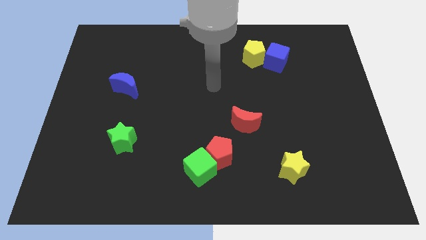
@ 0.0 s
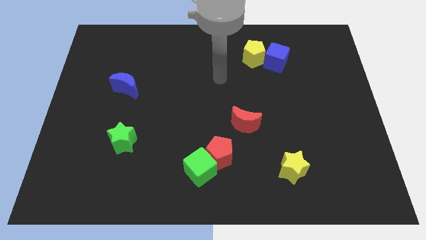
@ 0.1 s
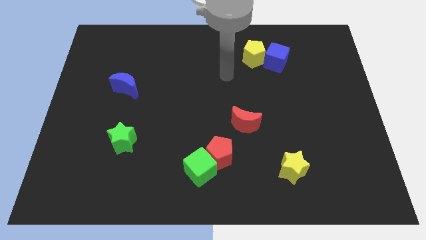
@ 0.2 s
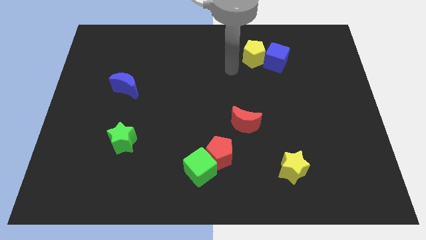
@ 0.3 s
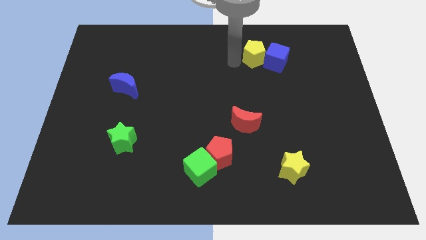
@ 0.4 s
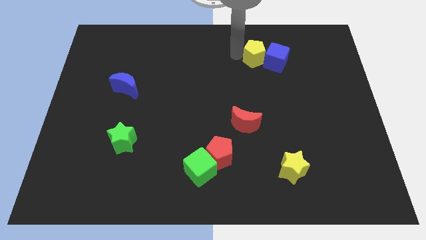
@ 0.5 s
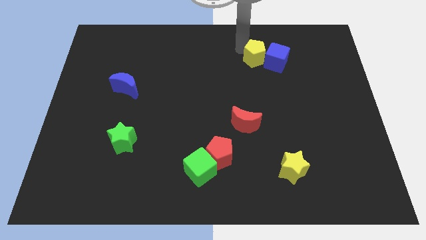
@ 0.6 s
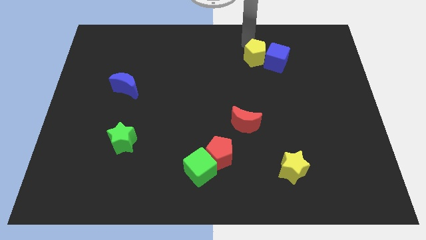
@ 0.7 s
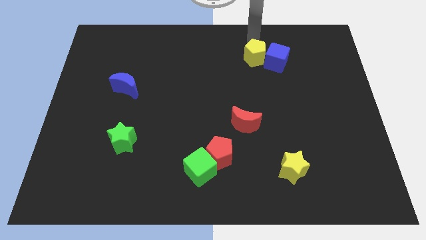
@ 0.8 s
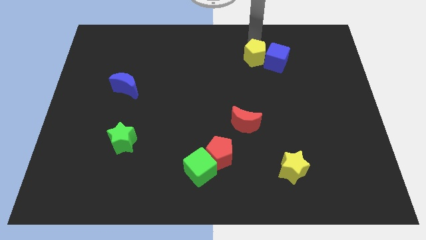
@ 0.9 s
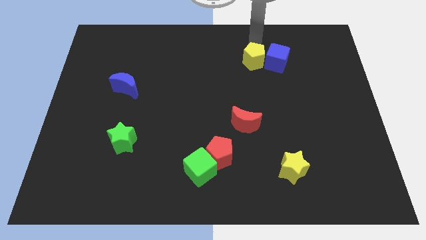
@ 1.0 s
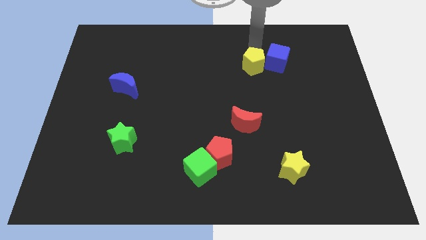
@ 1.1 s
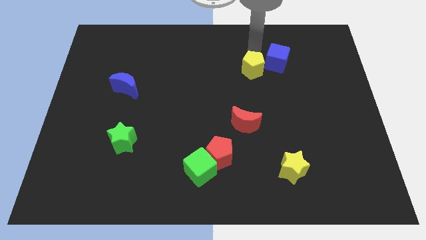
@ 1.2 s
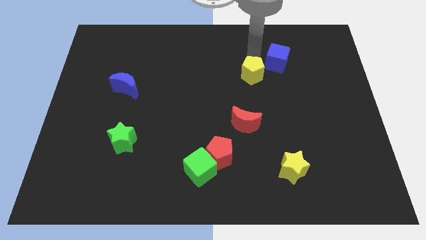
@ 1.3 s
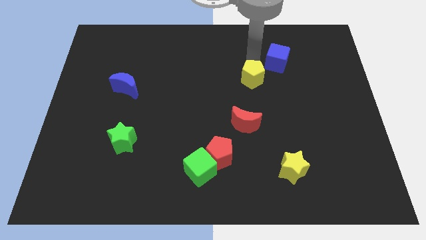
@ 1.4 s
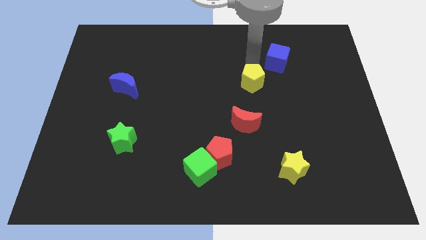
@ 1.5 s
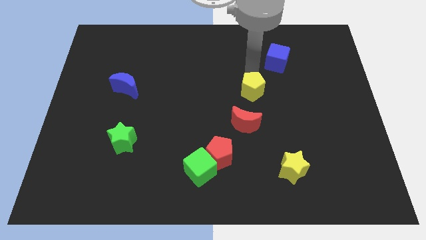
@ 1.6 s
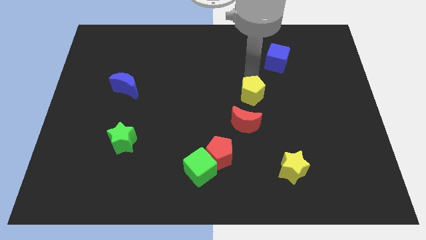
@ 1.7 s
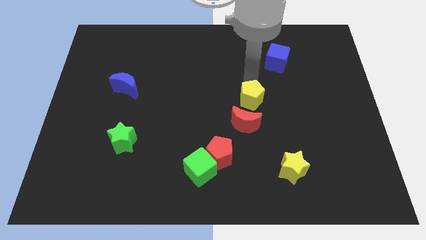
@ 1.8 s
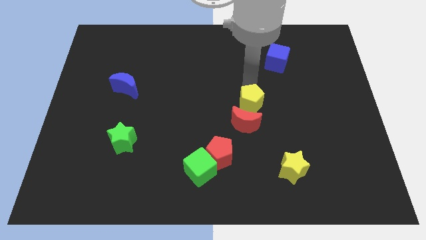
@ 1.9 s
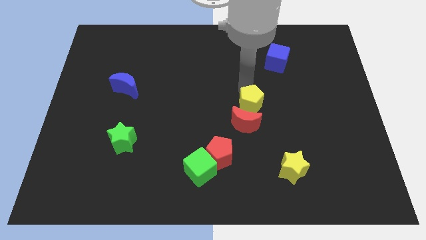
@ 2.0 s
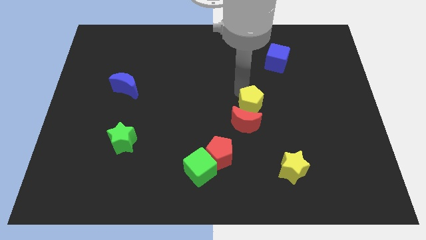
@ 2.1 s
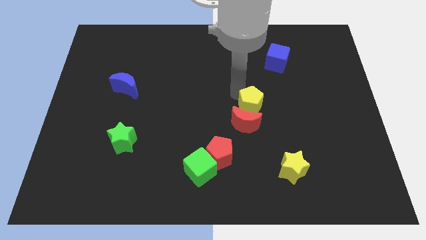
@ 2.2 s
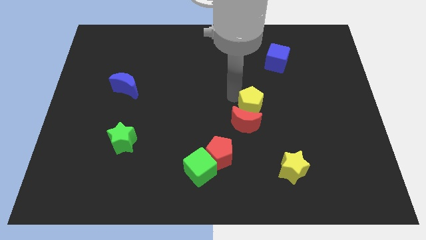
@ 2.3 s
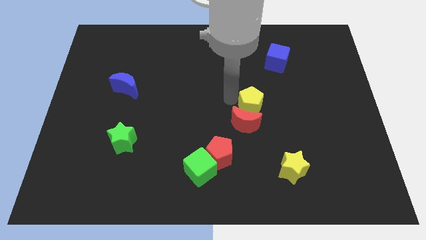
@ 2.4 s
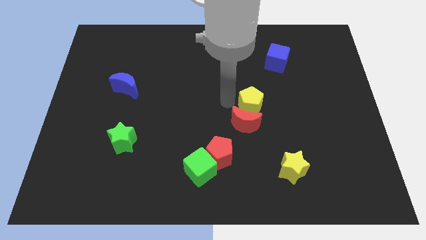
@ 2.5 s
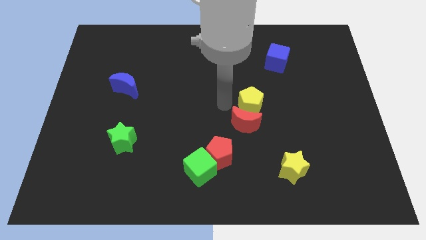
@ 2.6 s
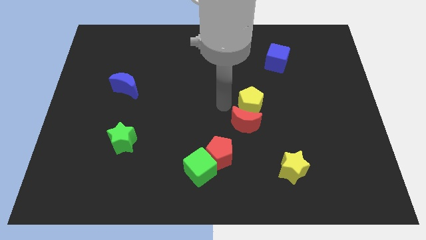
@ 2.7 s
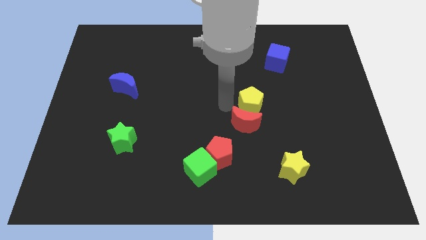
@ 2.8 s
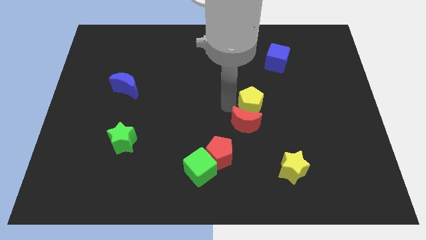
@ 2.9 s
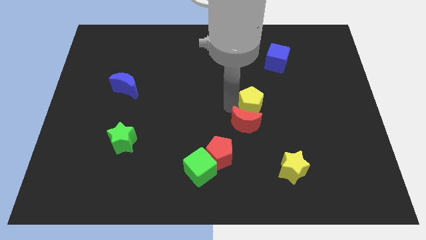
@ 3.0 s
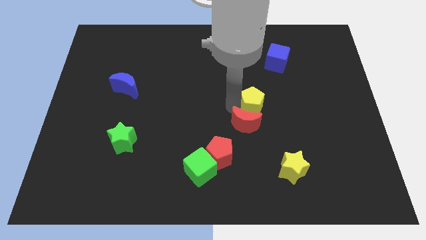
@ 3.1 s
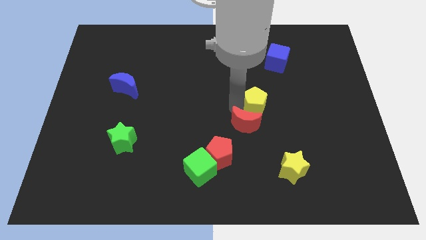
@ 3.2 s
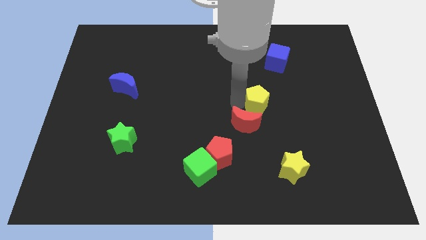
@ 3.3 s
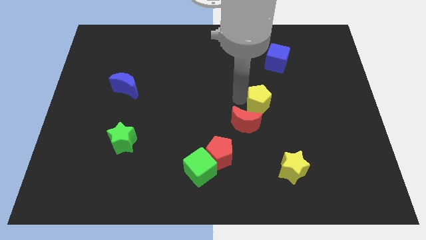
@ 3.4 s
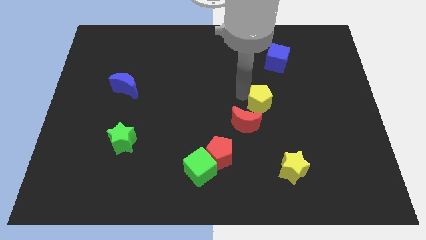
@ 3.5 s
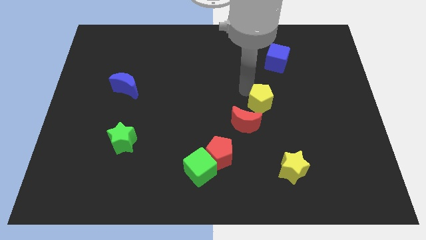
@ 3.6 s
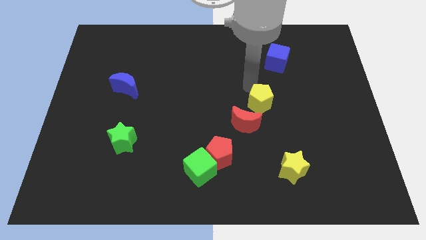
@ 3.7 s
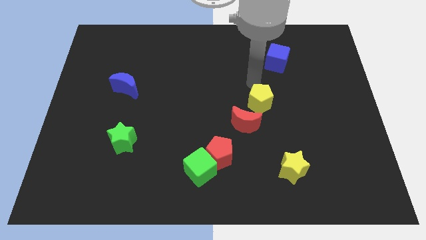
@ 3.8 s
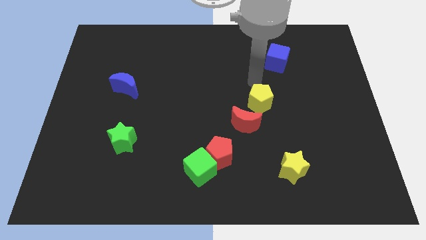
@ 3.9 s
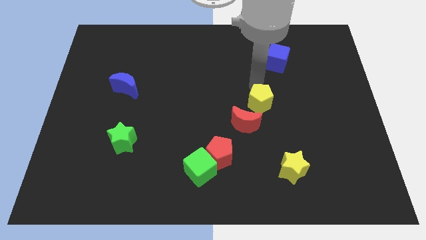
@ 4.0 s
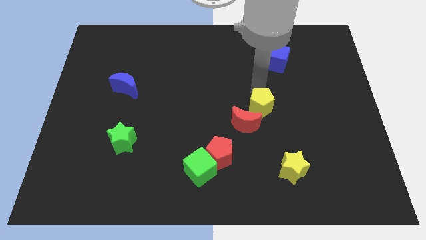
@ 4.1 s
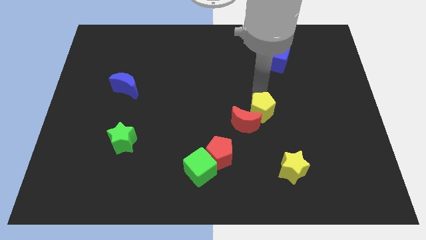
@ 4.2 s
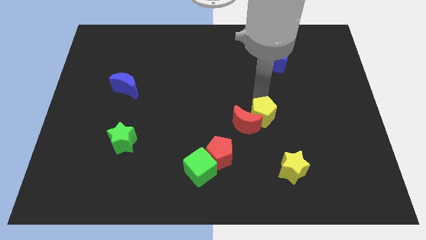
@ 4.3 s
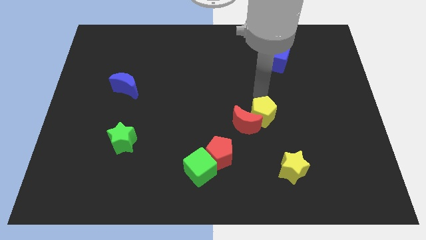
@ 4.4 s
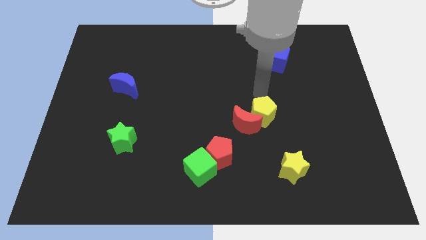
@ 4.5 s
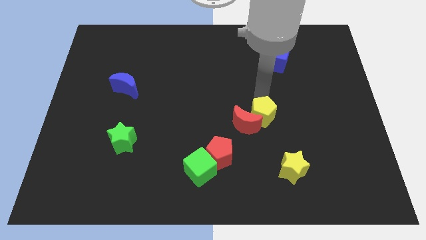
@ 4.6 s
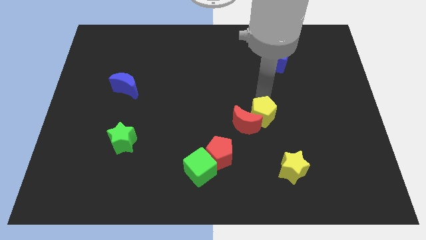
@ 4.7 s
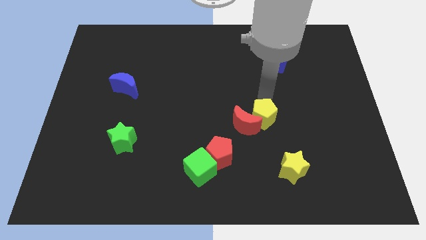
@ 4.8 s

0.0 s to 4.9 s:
push the yellow pentagon downwards

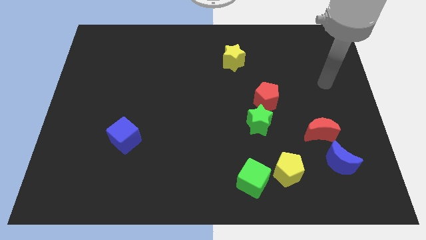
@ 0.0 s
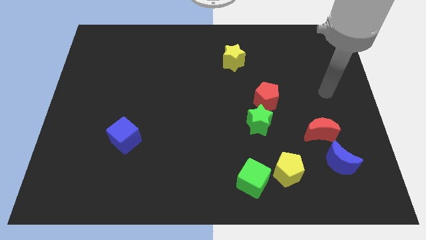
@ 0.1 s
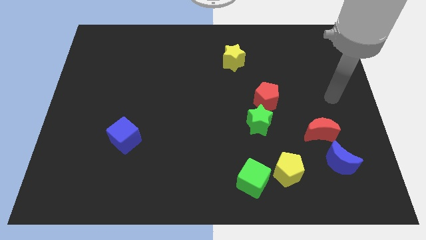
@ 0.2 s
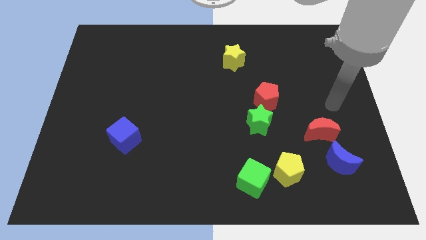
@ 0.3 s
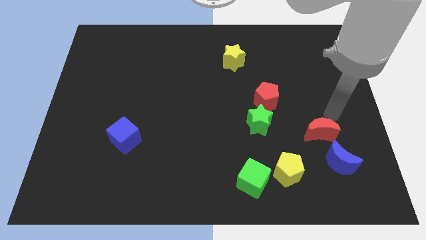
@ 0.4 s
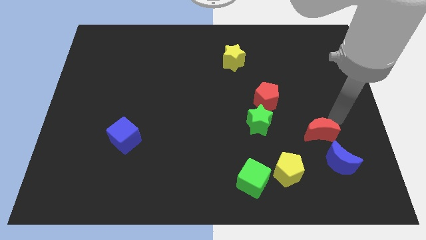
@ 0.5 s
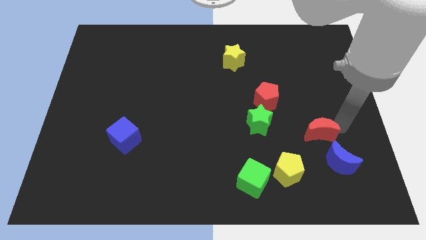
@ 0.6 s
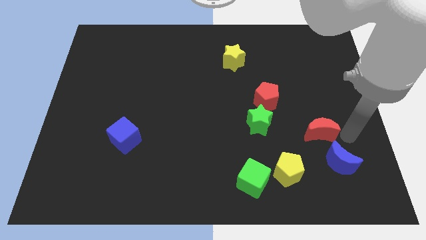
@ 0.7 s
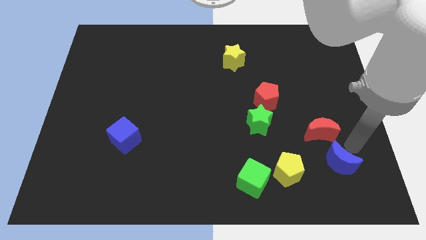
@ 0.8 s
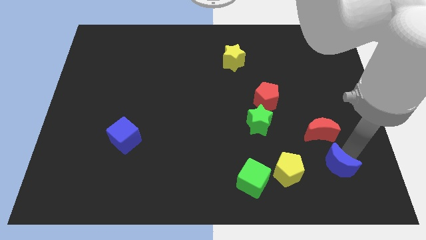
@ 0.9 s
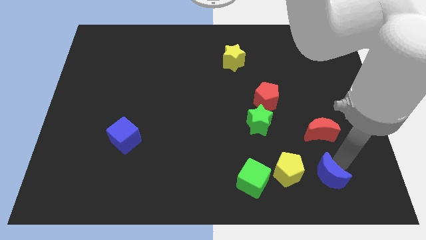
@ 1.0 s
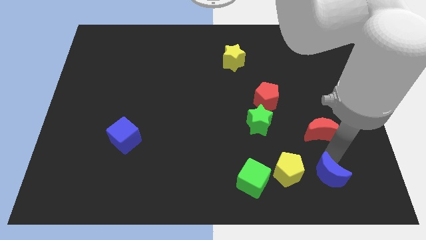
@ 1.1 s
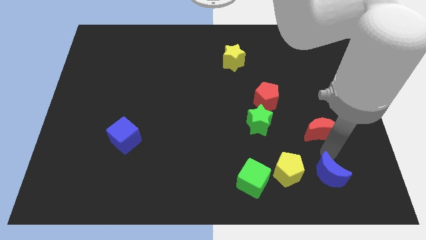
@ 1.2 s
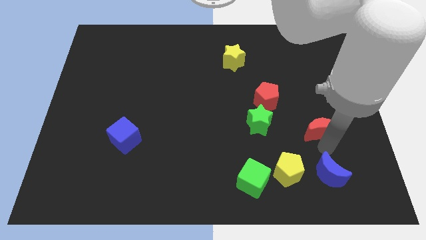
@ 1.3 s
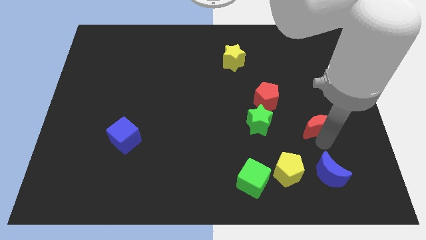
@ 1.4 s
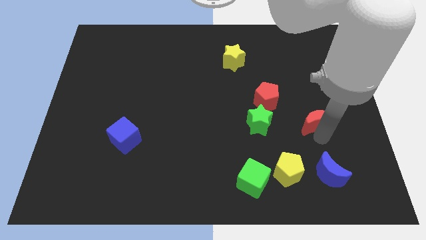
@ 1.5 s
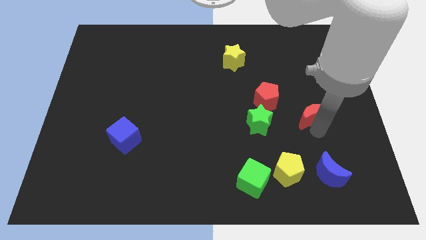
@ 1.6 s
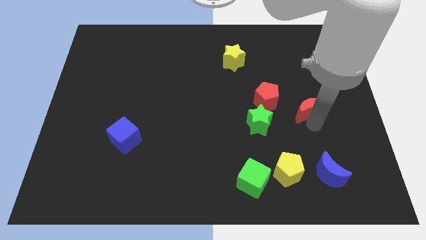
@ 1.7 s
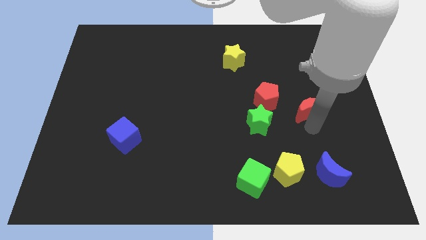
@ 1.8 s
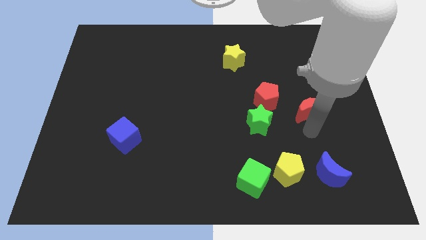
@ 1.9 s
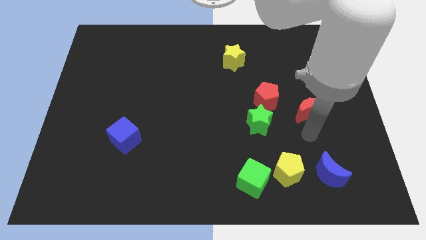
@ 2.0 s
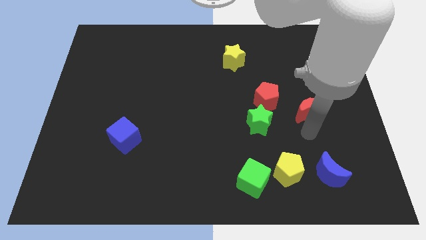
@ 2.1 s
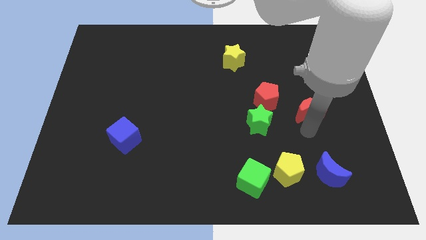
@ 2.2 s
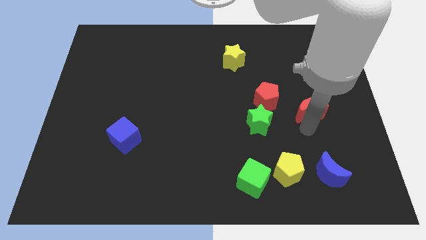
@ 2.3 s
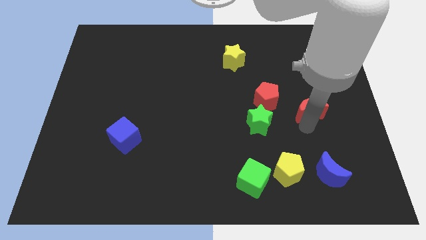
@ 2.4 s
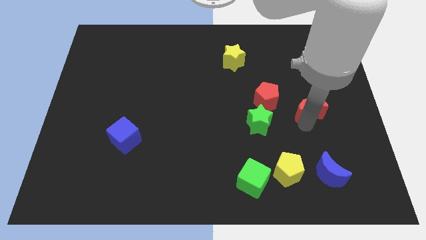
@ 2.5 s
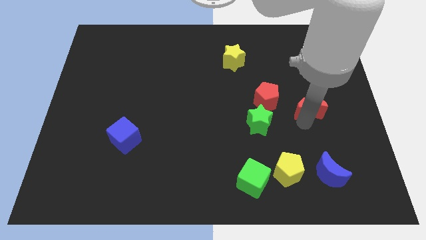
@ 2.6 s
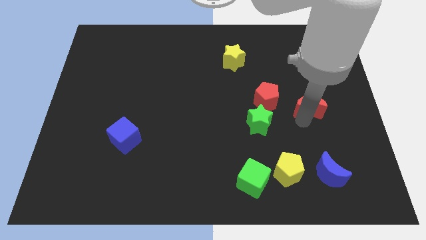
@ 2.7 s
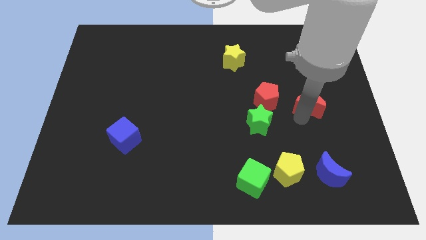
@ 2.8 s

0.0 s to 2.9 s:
slightly slide the red moon upwards

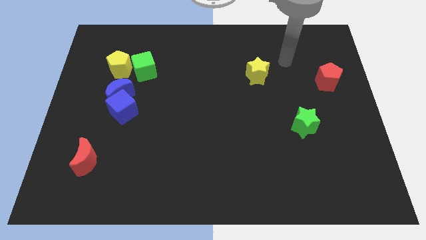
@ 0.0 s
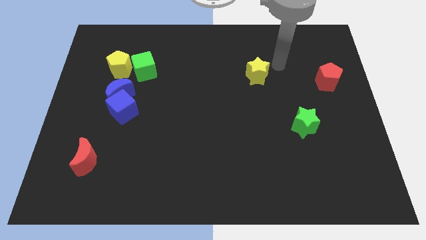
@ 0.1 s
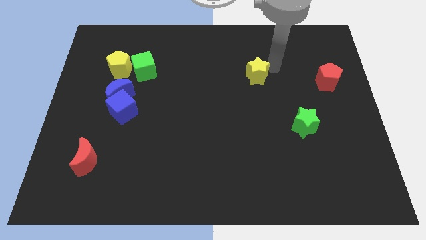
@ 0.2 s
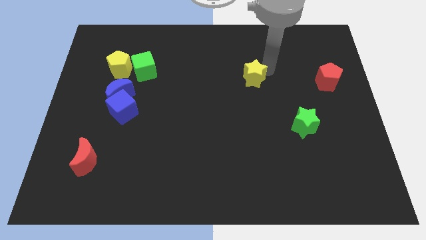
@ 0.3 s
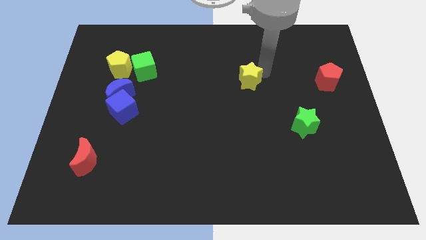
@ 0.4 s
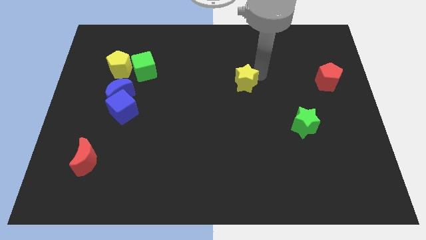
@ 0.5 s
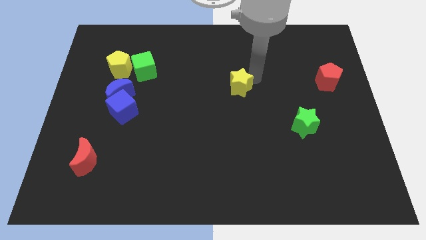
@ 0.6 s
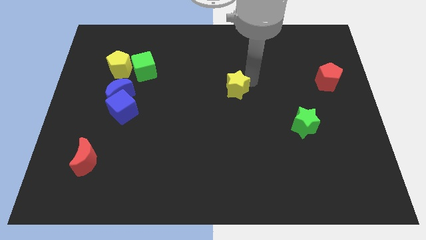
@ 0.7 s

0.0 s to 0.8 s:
push the yellow star down and to the left diagonally a little bit
